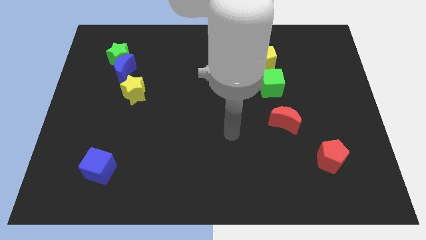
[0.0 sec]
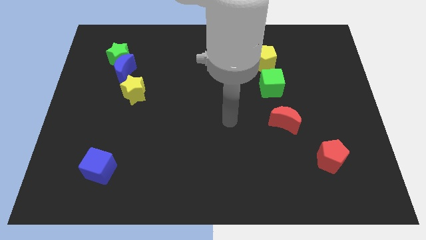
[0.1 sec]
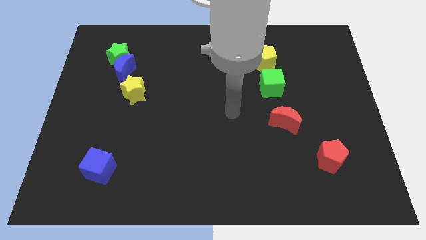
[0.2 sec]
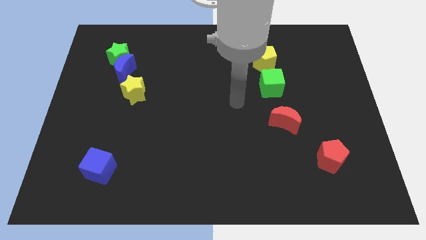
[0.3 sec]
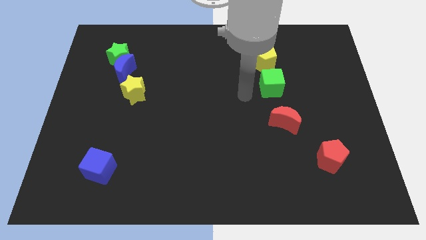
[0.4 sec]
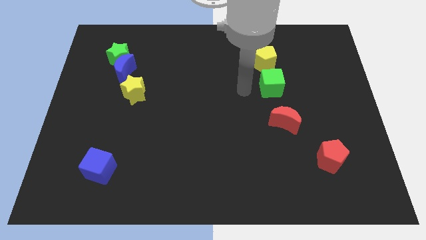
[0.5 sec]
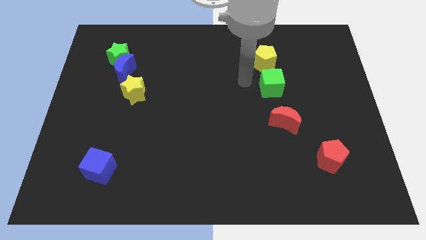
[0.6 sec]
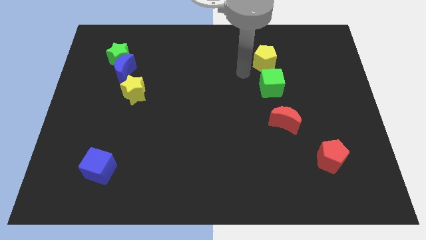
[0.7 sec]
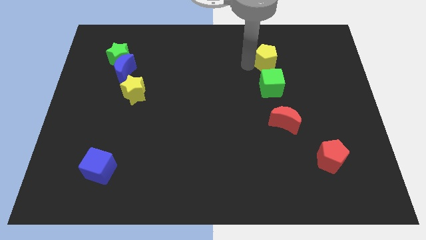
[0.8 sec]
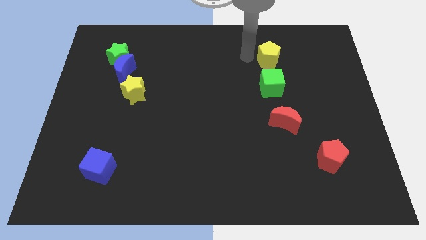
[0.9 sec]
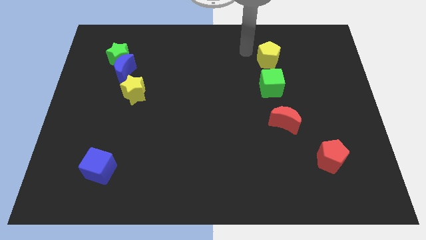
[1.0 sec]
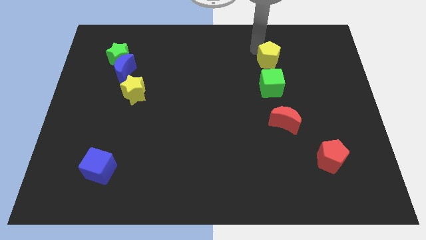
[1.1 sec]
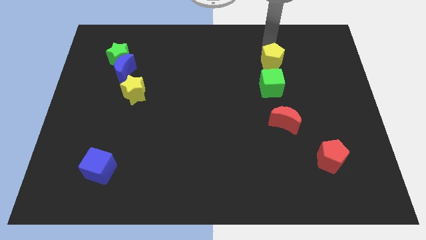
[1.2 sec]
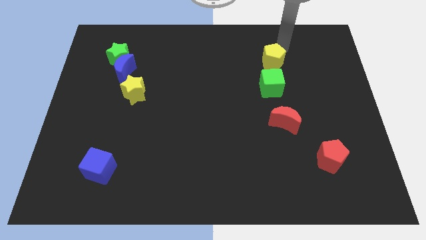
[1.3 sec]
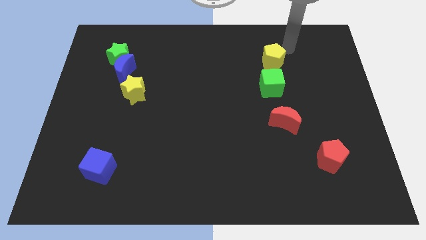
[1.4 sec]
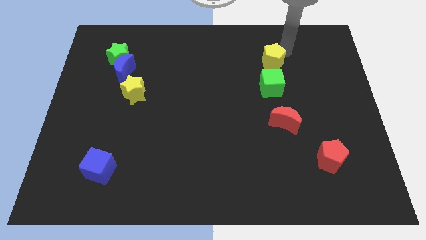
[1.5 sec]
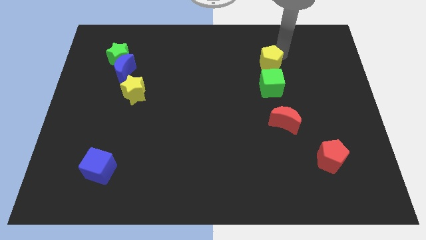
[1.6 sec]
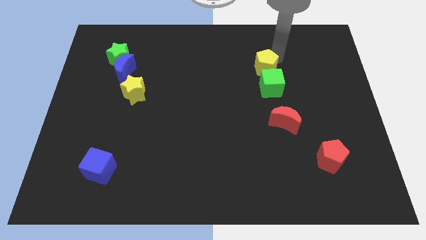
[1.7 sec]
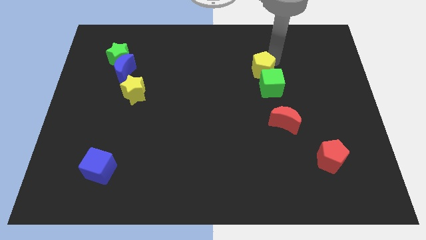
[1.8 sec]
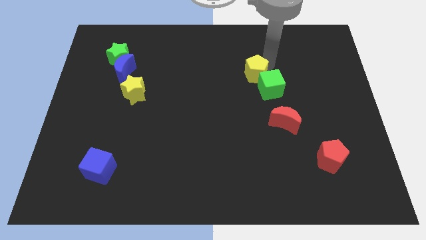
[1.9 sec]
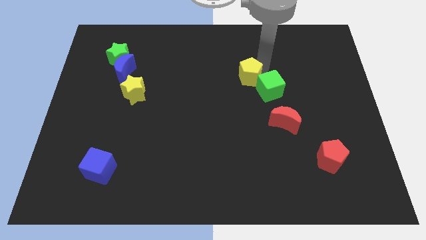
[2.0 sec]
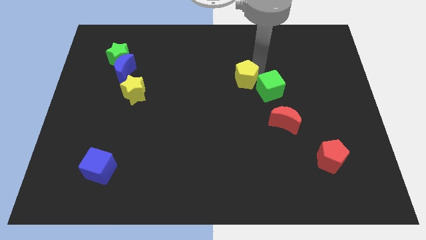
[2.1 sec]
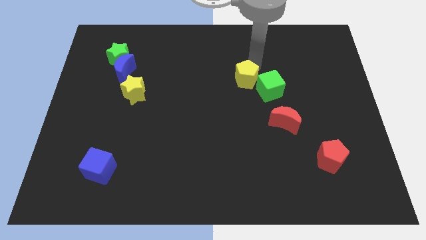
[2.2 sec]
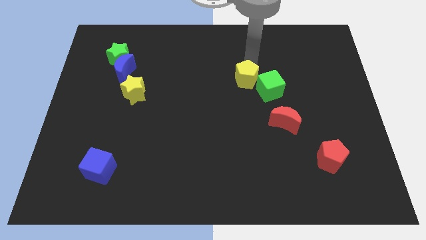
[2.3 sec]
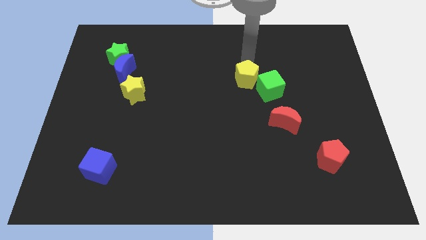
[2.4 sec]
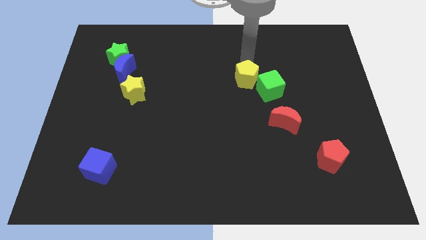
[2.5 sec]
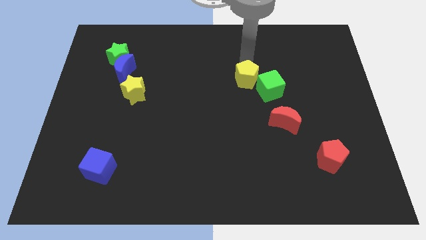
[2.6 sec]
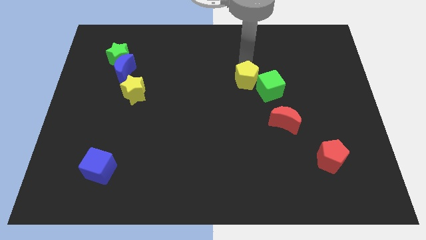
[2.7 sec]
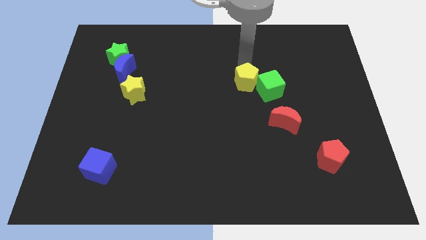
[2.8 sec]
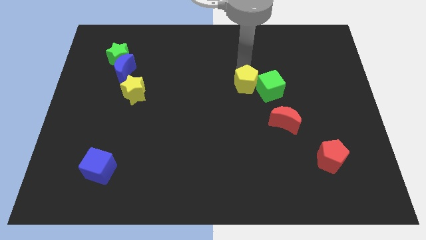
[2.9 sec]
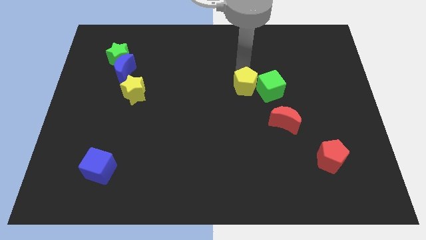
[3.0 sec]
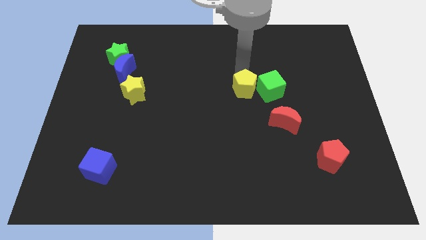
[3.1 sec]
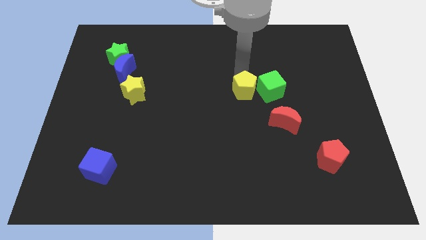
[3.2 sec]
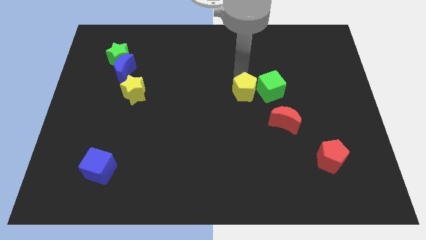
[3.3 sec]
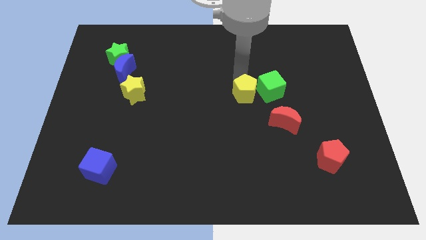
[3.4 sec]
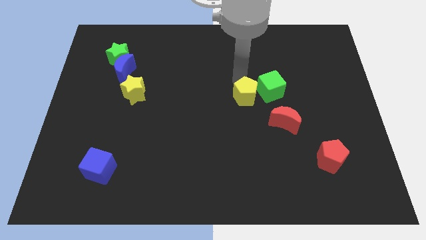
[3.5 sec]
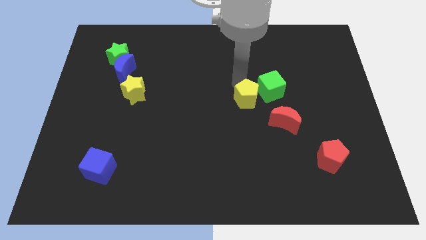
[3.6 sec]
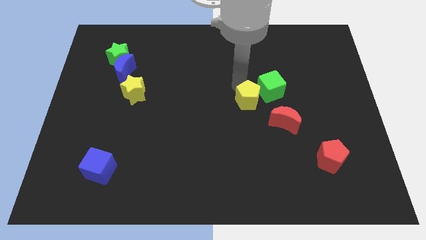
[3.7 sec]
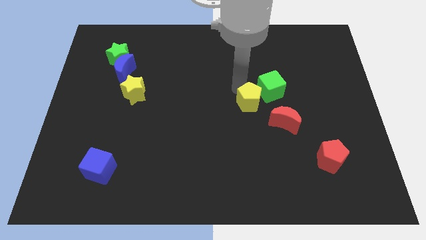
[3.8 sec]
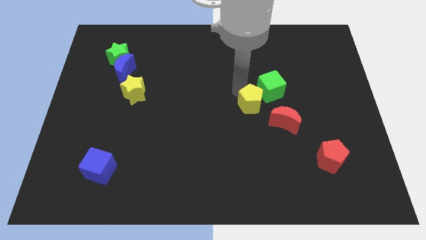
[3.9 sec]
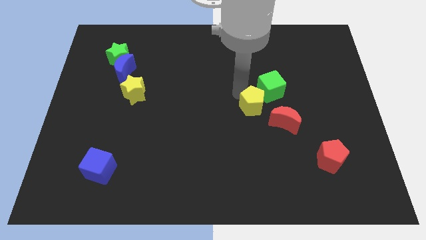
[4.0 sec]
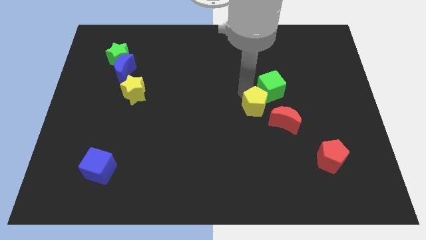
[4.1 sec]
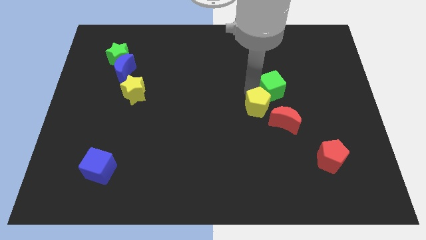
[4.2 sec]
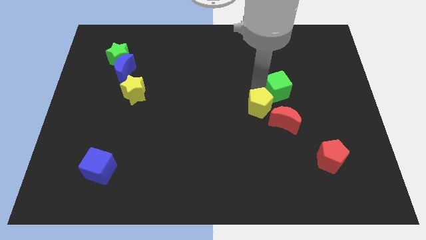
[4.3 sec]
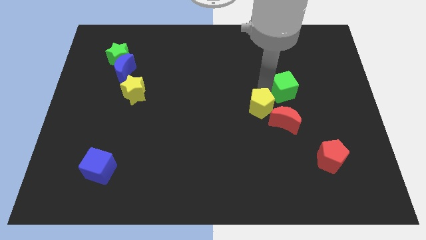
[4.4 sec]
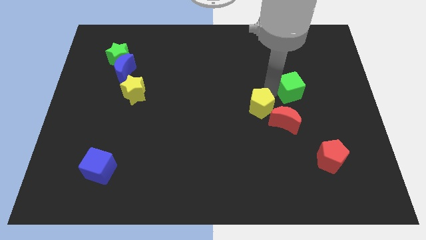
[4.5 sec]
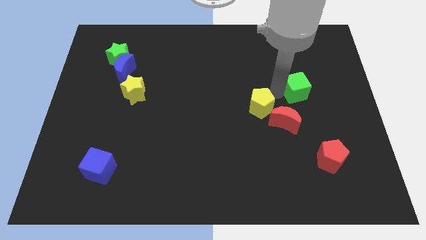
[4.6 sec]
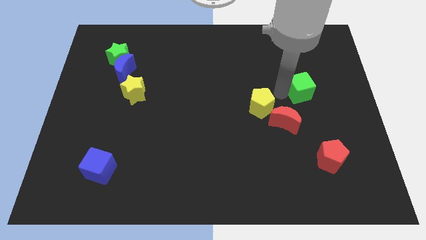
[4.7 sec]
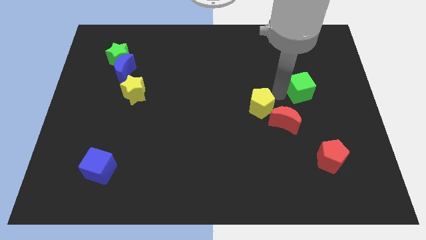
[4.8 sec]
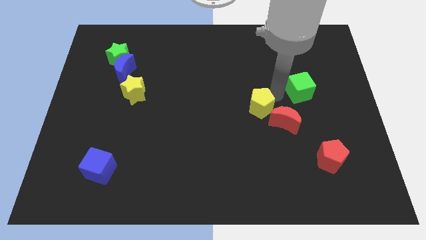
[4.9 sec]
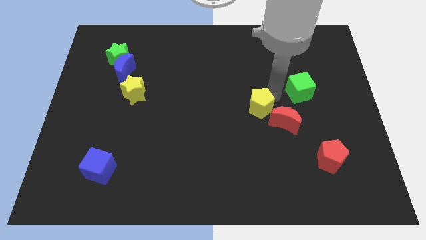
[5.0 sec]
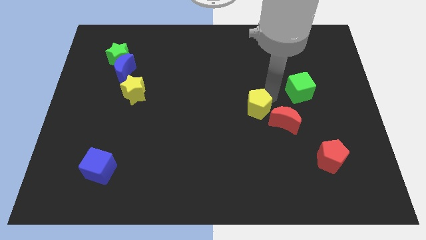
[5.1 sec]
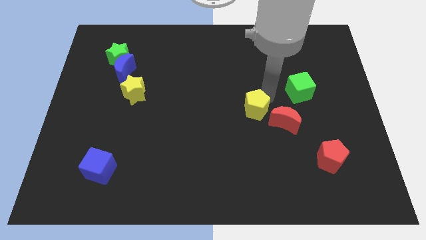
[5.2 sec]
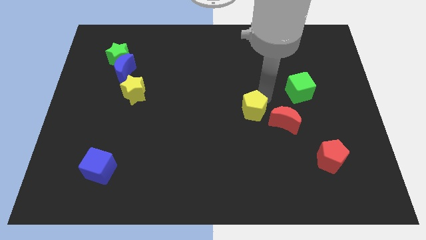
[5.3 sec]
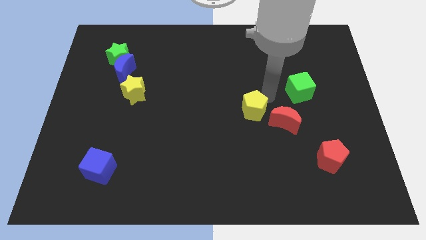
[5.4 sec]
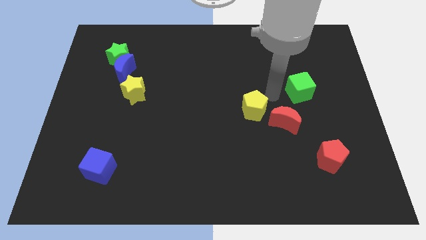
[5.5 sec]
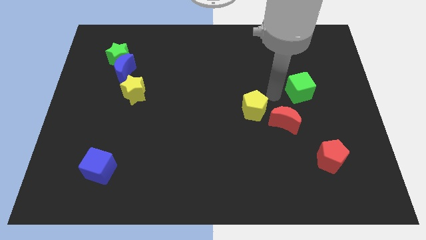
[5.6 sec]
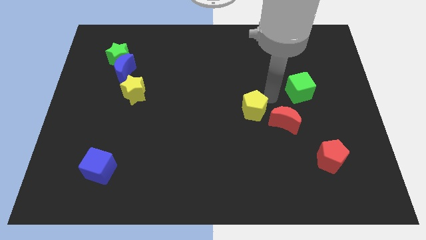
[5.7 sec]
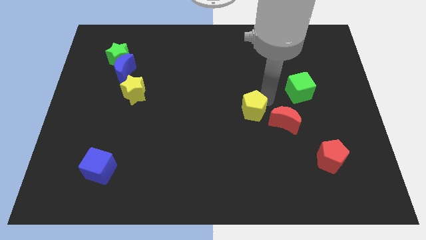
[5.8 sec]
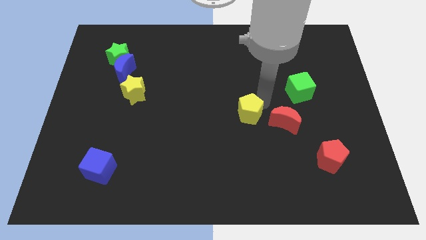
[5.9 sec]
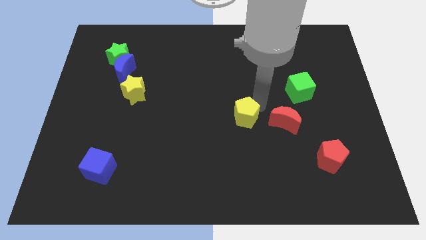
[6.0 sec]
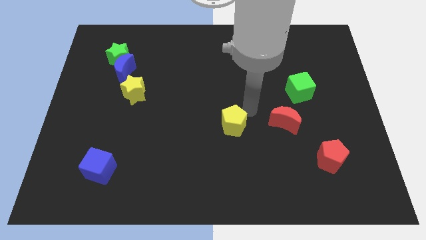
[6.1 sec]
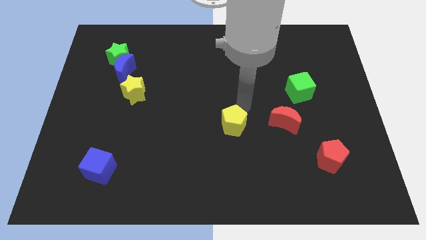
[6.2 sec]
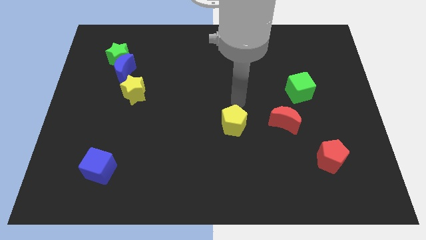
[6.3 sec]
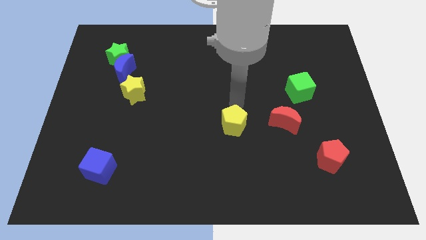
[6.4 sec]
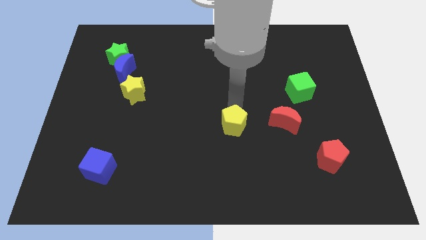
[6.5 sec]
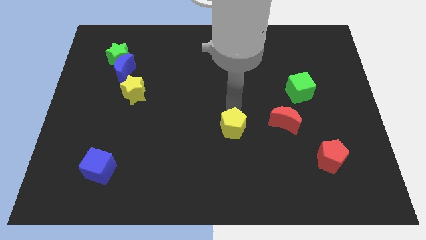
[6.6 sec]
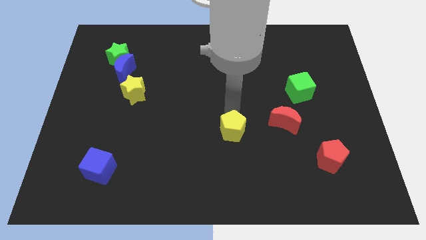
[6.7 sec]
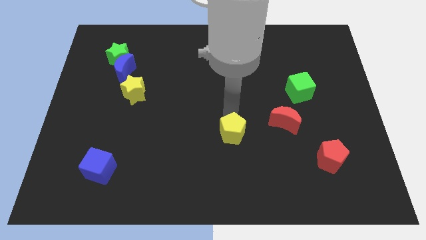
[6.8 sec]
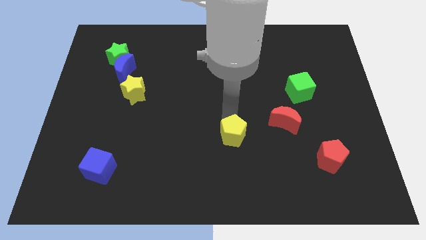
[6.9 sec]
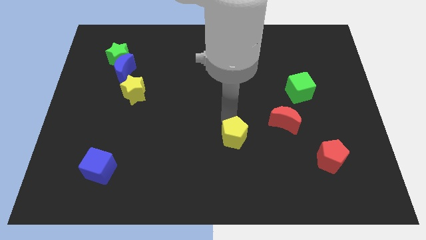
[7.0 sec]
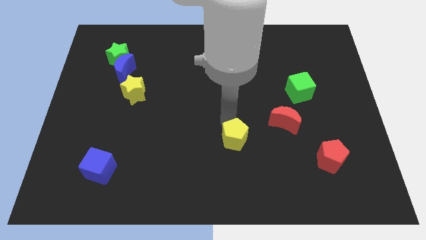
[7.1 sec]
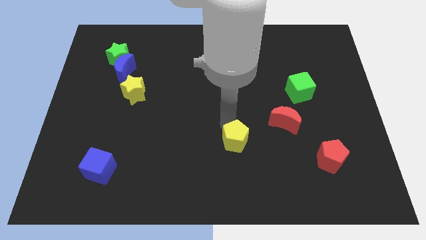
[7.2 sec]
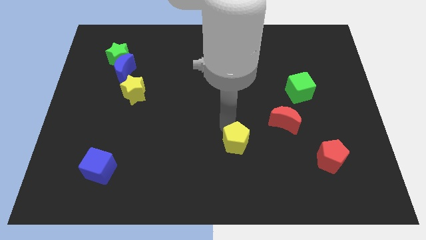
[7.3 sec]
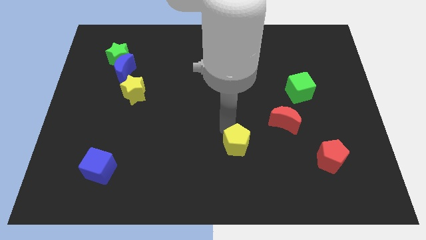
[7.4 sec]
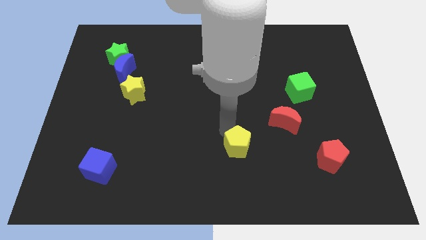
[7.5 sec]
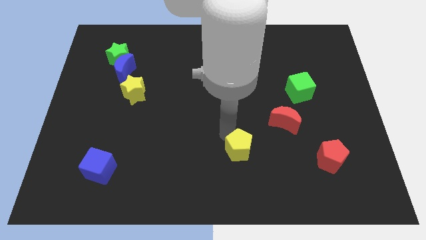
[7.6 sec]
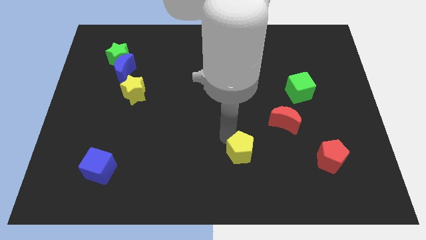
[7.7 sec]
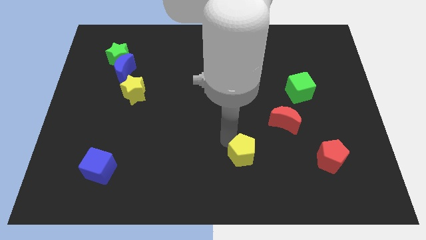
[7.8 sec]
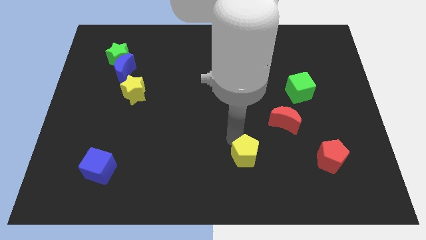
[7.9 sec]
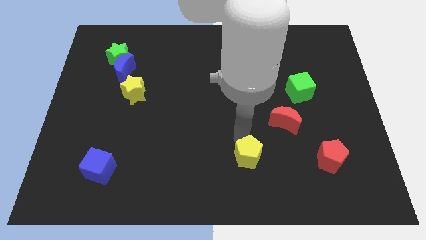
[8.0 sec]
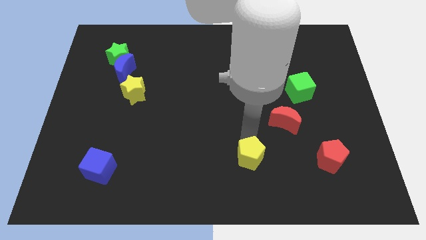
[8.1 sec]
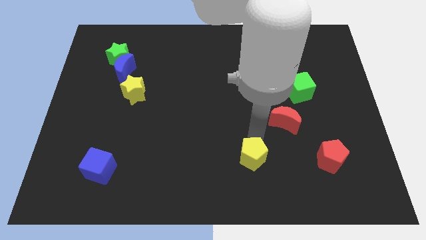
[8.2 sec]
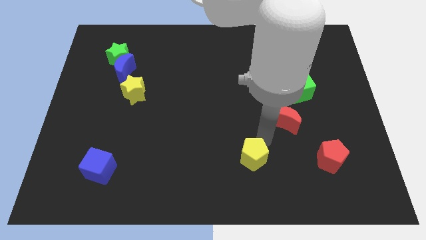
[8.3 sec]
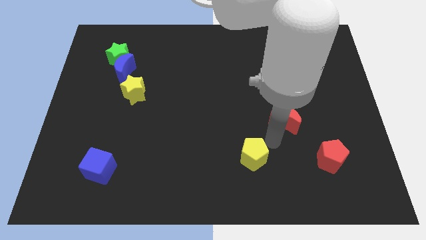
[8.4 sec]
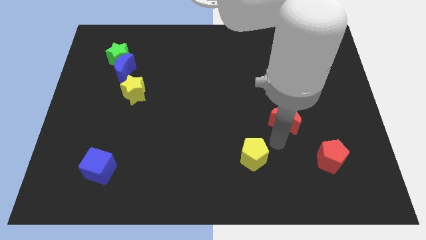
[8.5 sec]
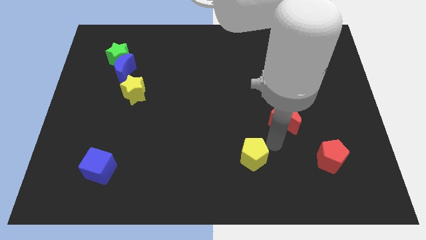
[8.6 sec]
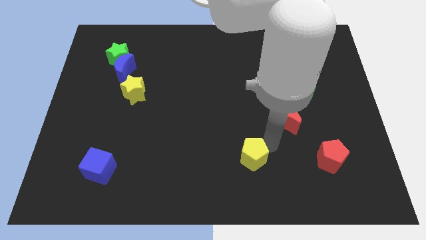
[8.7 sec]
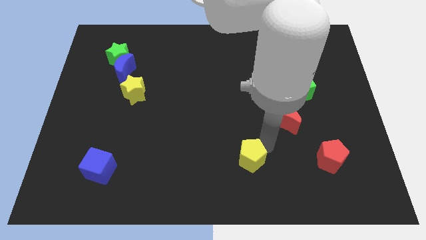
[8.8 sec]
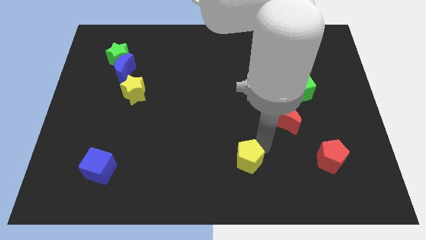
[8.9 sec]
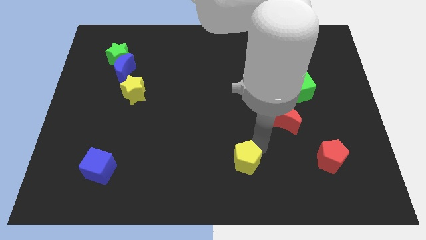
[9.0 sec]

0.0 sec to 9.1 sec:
push the yellow pentagon to the bottom side
